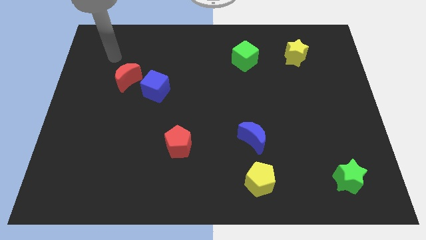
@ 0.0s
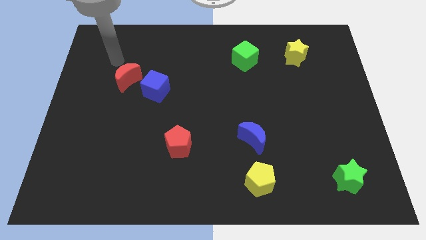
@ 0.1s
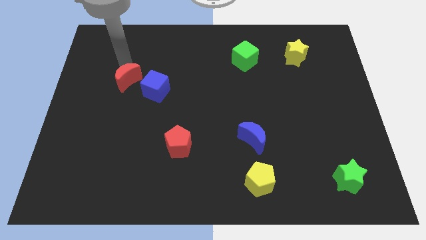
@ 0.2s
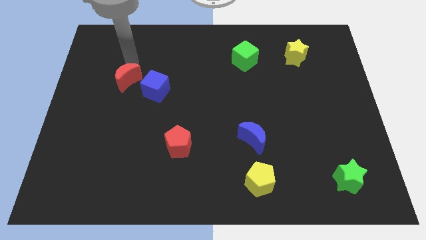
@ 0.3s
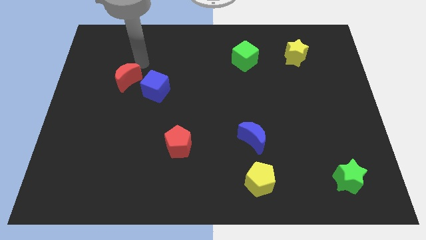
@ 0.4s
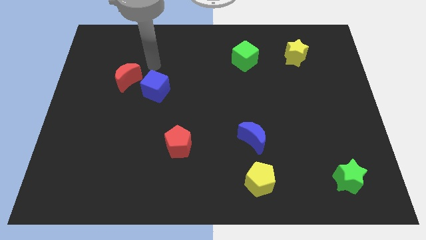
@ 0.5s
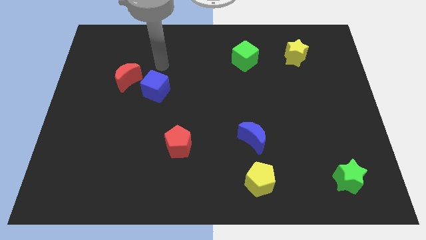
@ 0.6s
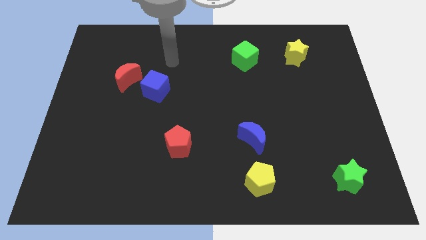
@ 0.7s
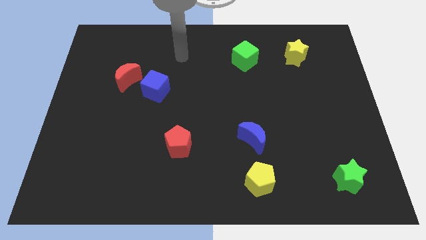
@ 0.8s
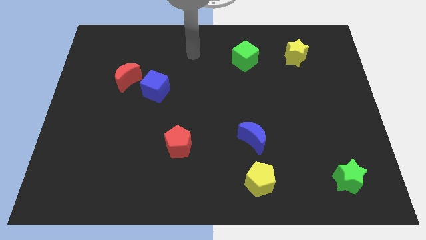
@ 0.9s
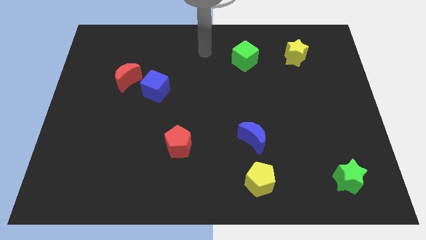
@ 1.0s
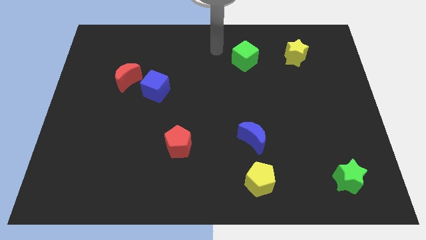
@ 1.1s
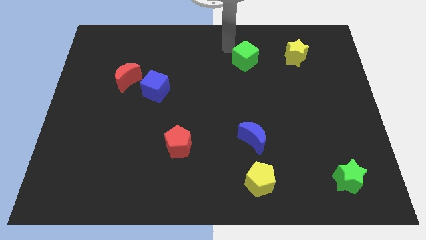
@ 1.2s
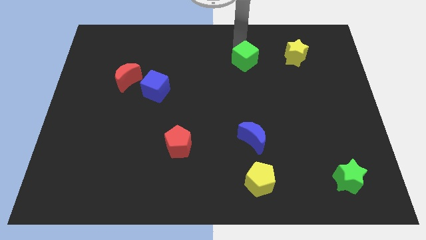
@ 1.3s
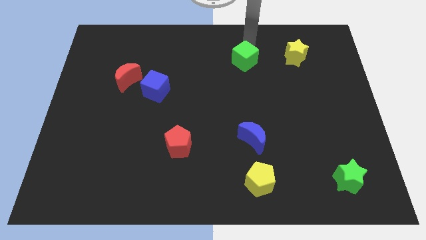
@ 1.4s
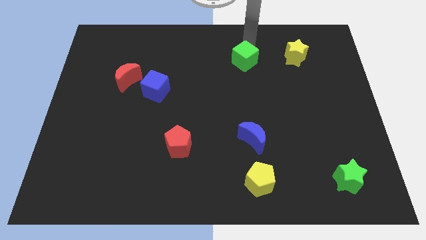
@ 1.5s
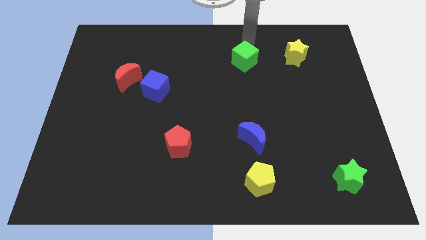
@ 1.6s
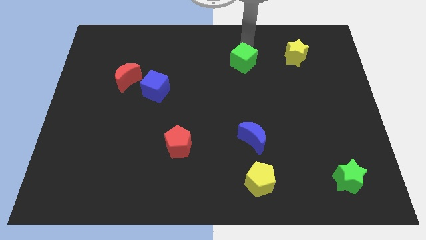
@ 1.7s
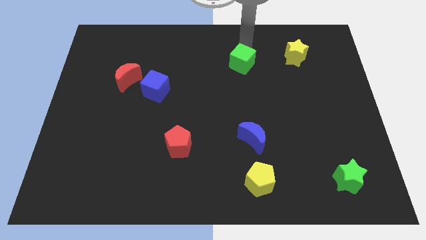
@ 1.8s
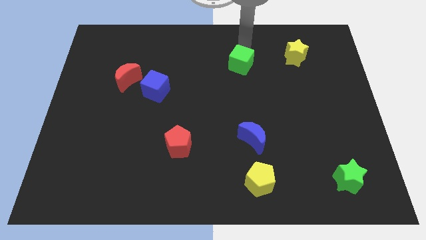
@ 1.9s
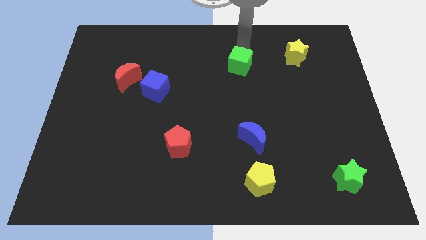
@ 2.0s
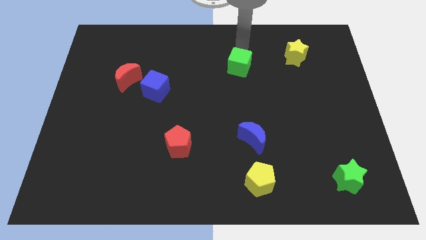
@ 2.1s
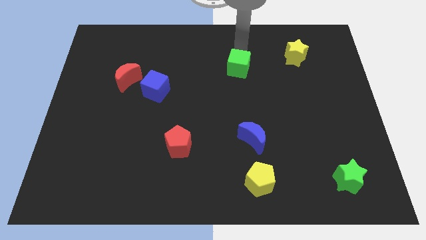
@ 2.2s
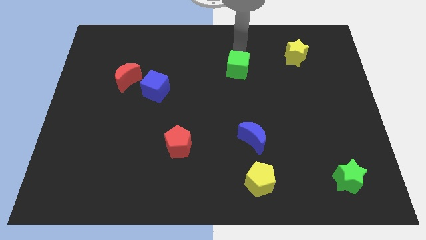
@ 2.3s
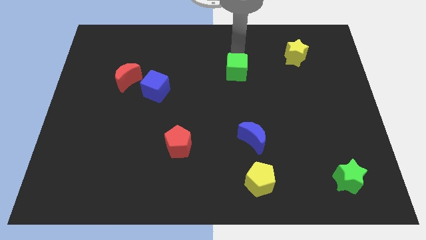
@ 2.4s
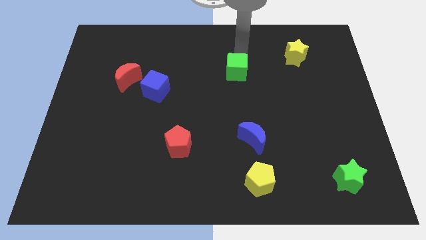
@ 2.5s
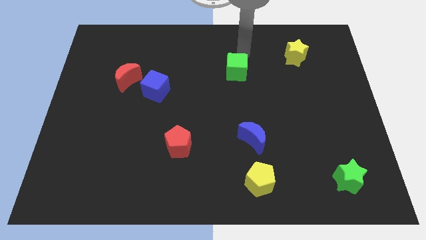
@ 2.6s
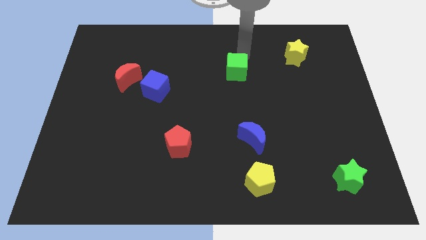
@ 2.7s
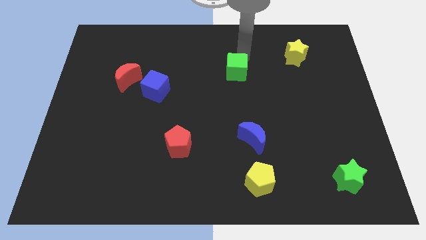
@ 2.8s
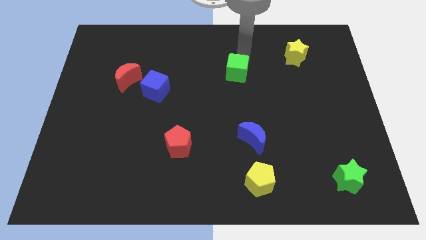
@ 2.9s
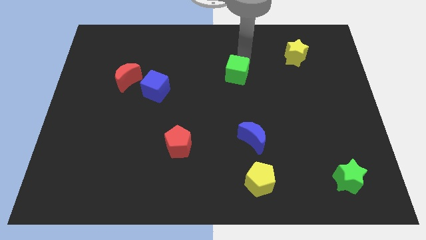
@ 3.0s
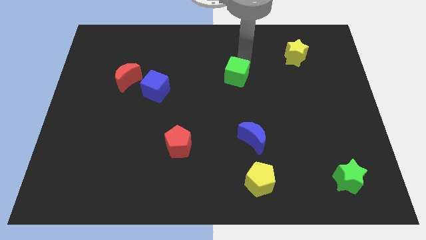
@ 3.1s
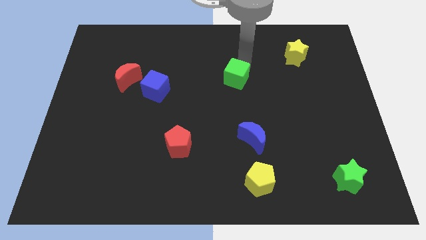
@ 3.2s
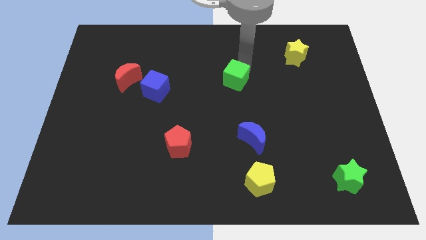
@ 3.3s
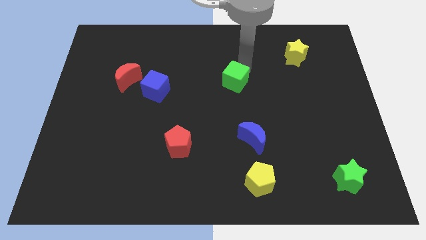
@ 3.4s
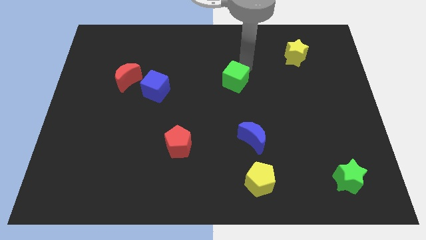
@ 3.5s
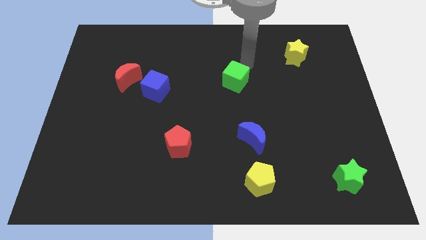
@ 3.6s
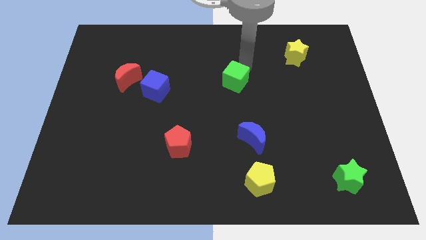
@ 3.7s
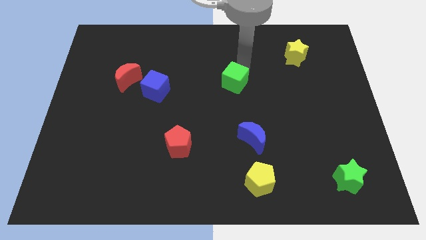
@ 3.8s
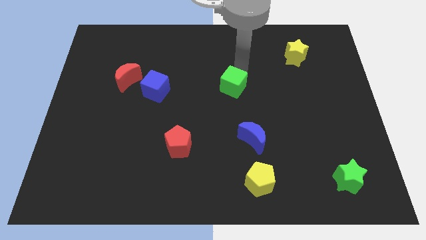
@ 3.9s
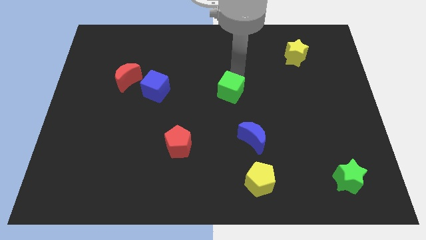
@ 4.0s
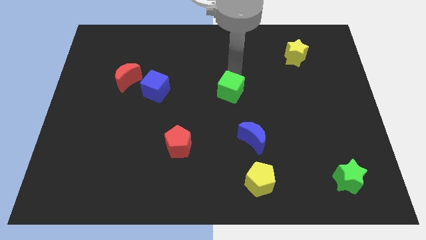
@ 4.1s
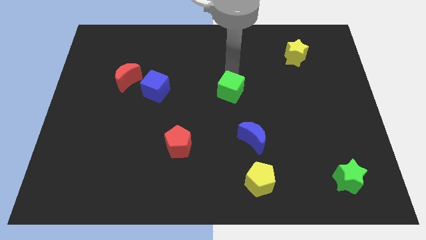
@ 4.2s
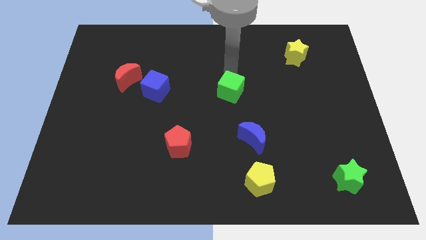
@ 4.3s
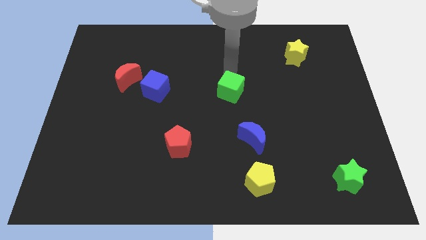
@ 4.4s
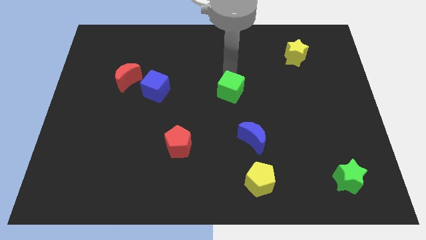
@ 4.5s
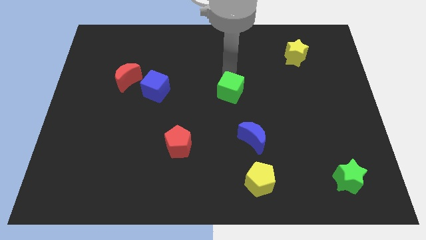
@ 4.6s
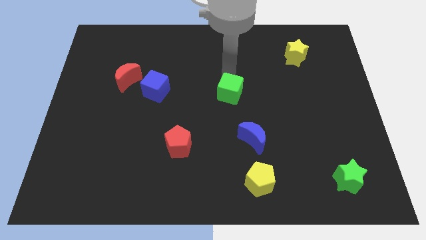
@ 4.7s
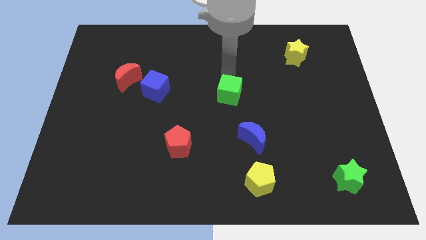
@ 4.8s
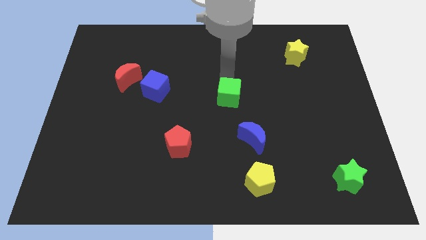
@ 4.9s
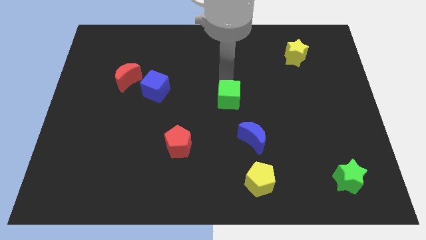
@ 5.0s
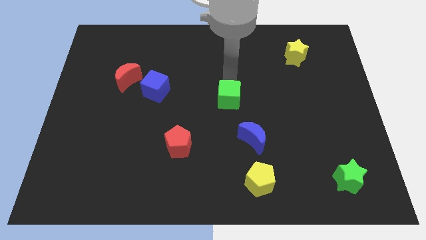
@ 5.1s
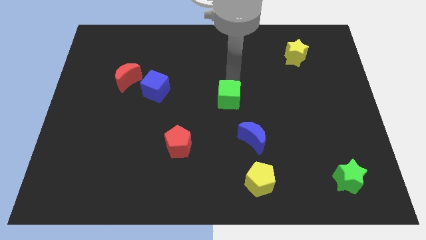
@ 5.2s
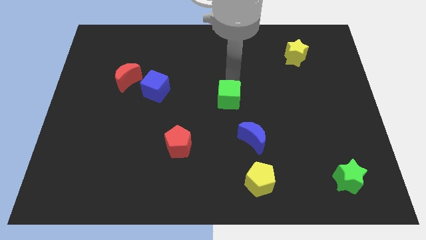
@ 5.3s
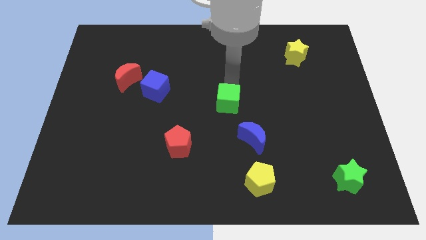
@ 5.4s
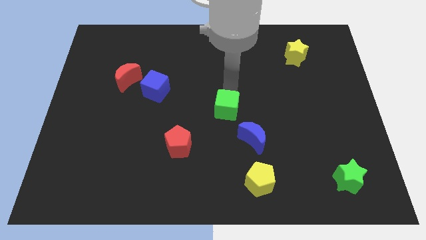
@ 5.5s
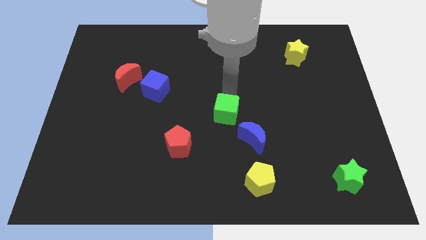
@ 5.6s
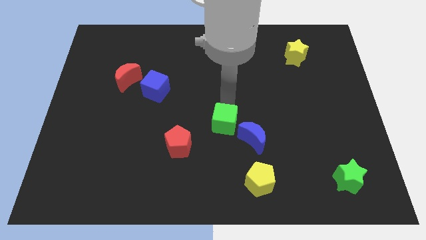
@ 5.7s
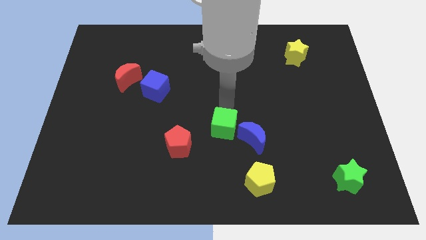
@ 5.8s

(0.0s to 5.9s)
push the green cube just right of the red pentagon

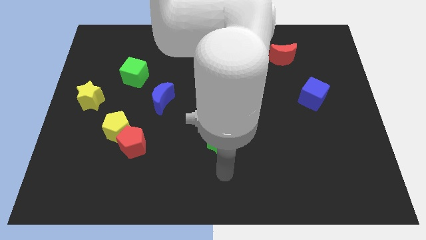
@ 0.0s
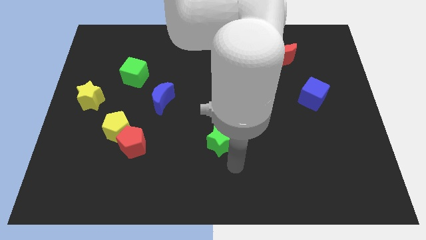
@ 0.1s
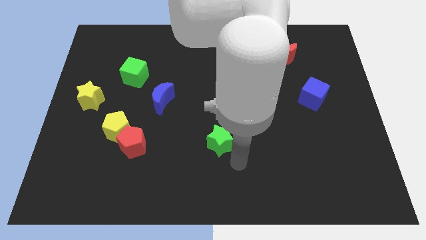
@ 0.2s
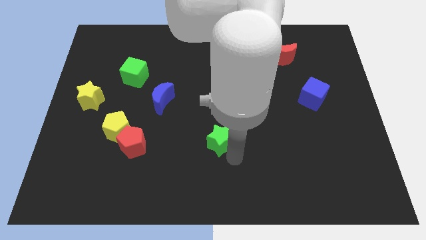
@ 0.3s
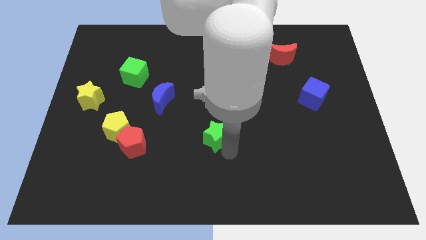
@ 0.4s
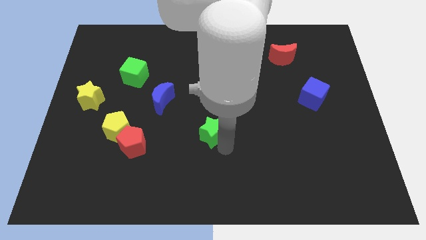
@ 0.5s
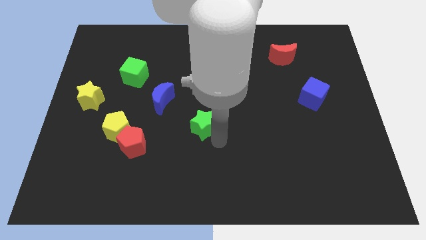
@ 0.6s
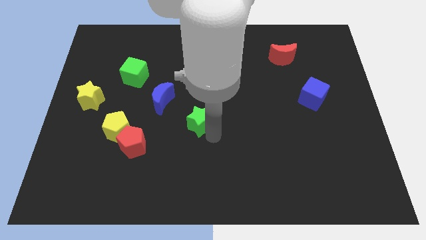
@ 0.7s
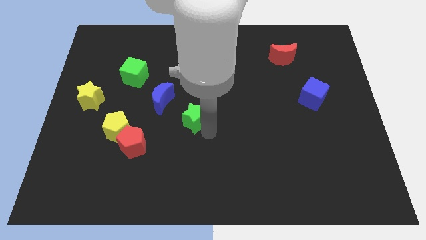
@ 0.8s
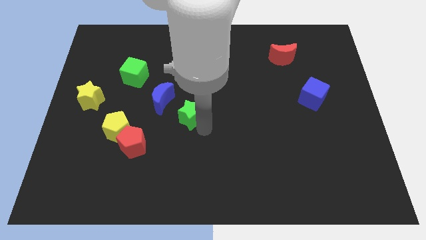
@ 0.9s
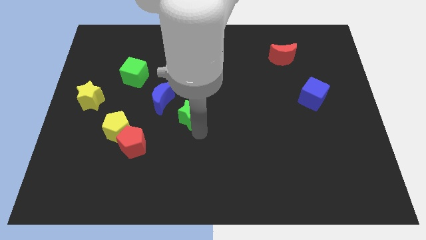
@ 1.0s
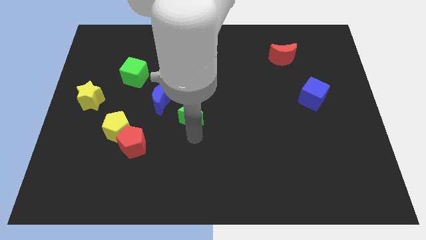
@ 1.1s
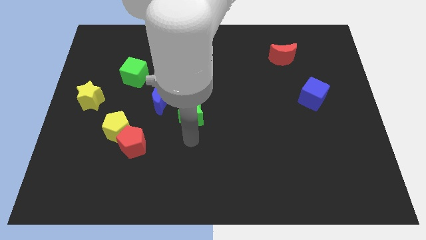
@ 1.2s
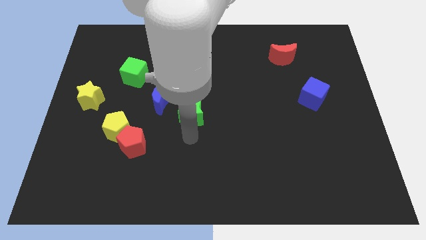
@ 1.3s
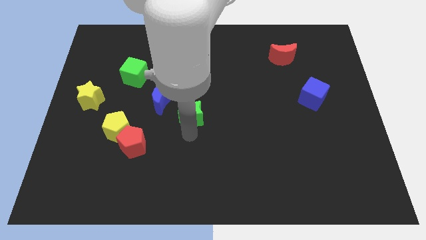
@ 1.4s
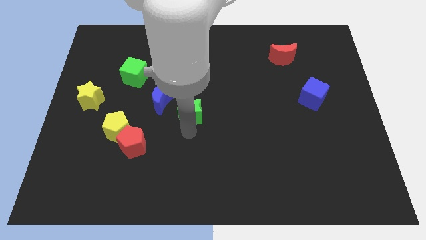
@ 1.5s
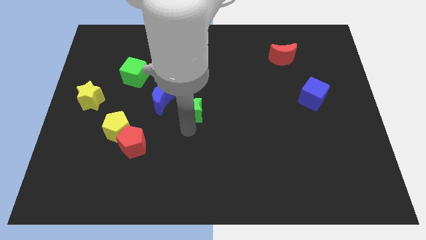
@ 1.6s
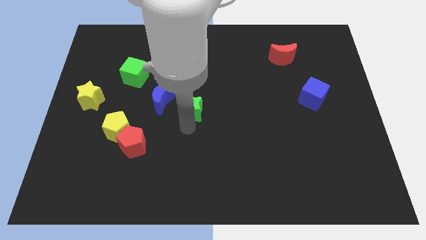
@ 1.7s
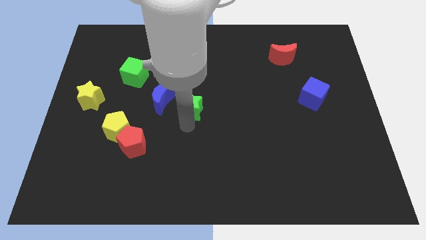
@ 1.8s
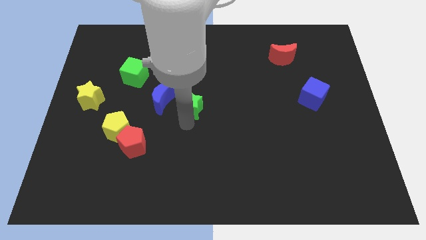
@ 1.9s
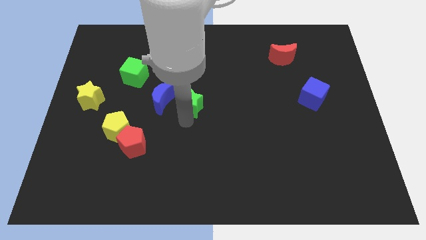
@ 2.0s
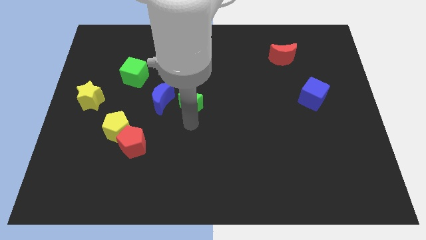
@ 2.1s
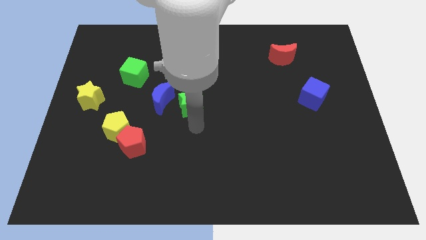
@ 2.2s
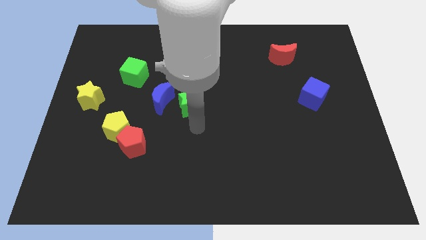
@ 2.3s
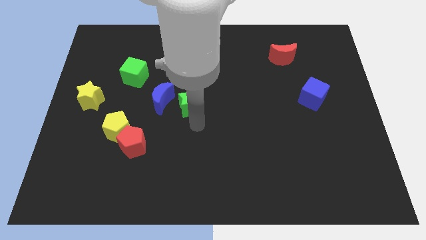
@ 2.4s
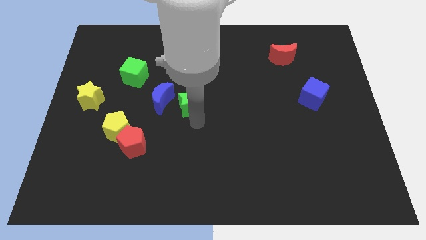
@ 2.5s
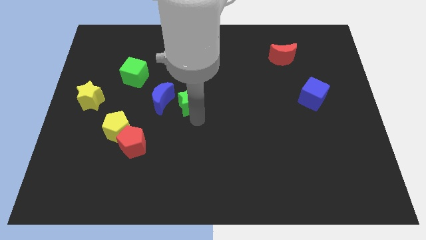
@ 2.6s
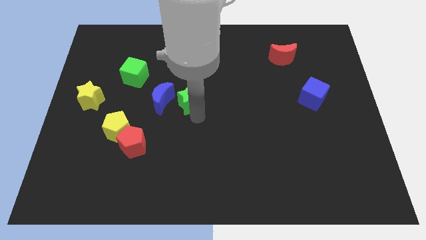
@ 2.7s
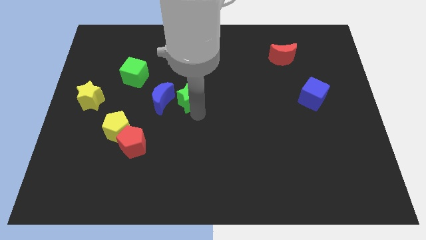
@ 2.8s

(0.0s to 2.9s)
slide the green star to the top right side of the blue moon
